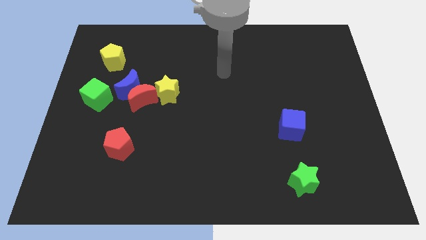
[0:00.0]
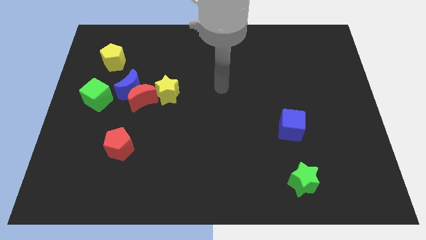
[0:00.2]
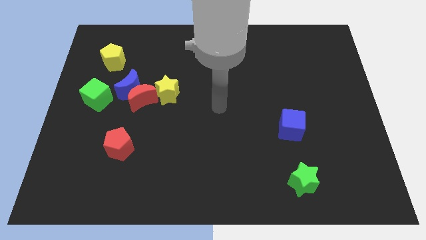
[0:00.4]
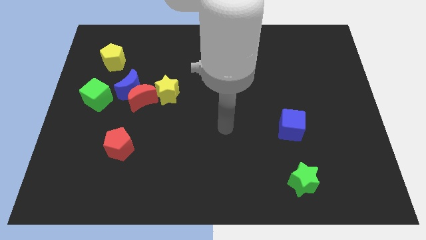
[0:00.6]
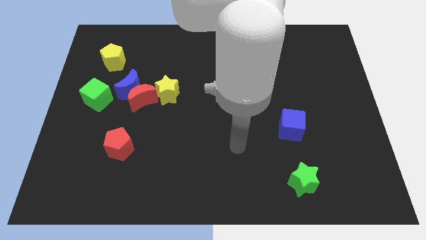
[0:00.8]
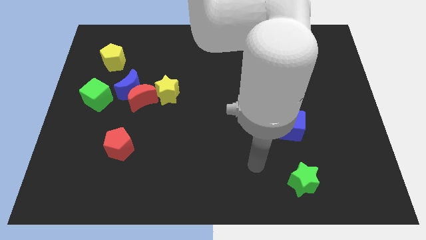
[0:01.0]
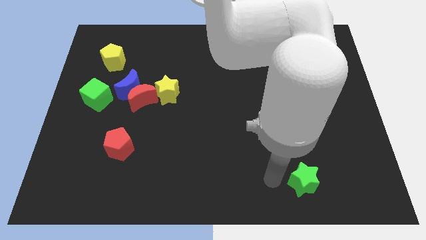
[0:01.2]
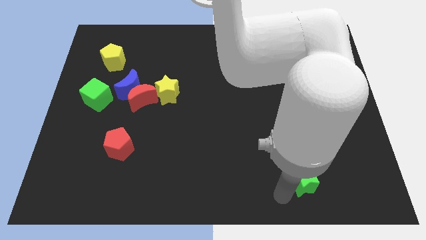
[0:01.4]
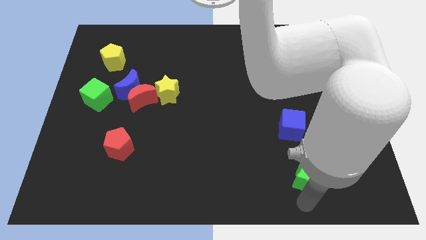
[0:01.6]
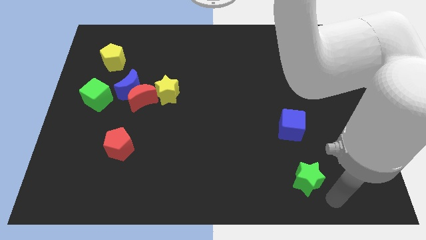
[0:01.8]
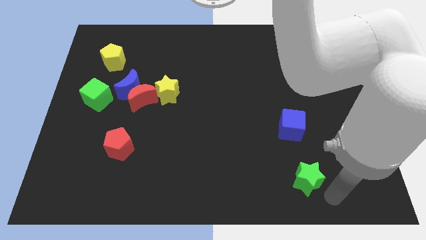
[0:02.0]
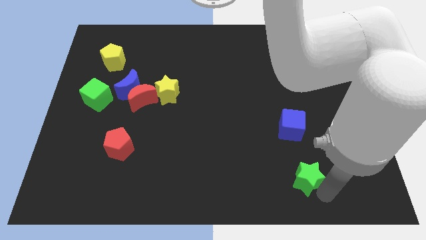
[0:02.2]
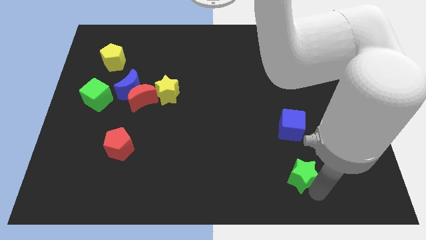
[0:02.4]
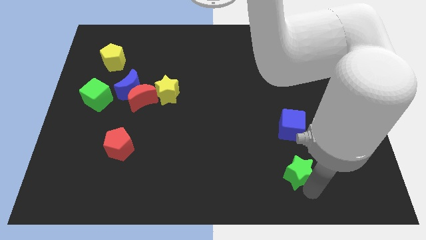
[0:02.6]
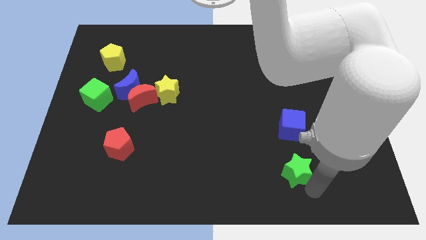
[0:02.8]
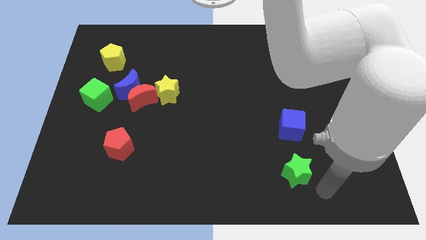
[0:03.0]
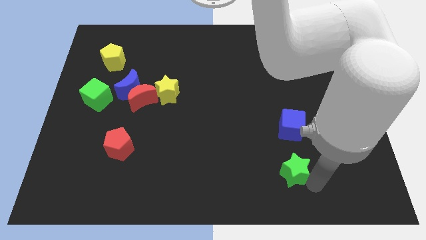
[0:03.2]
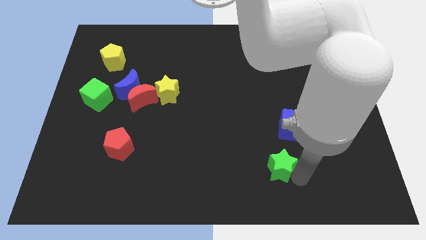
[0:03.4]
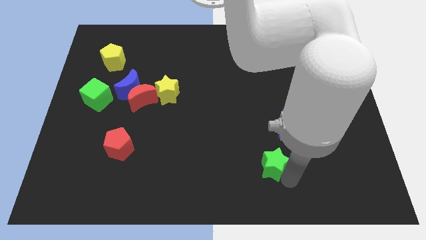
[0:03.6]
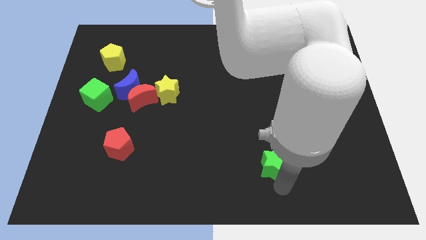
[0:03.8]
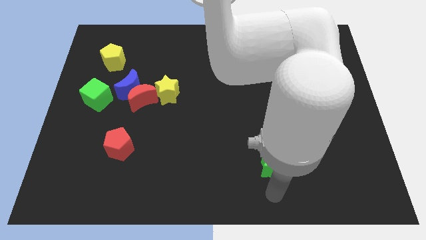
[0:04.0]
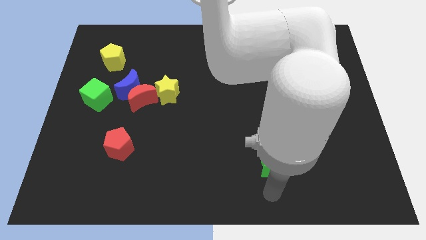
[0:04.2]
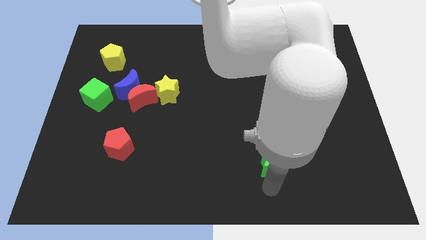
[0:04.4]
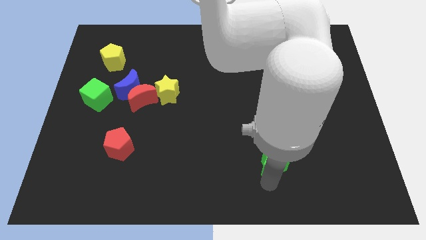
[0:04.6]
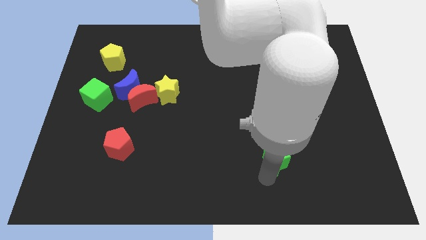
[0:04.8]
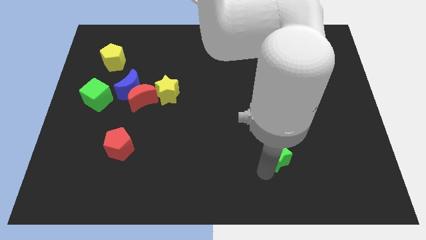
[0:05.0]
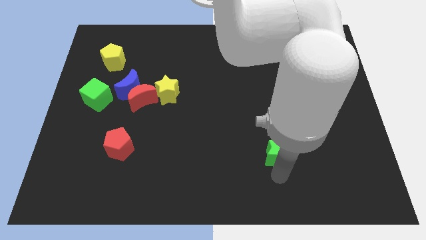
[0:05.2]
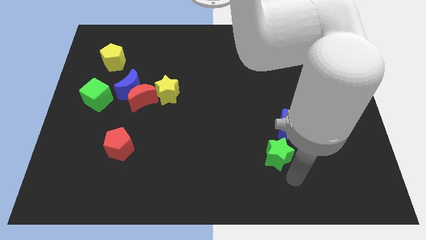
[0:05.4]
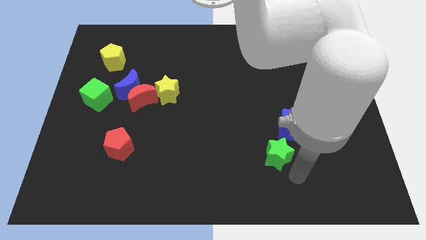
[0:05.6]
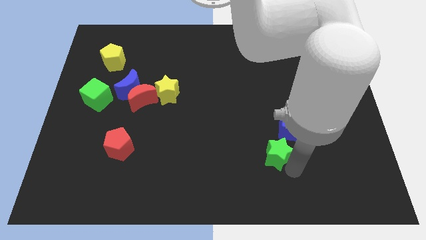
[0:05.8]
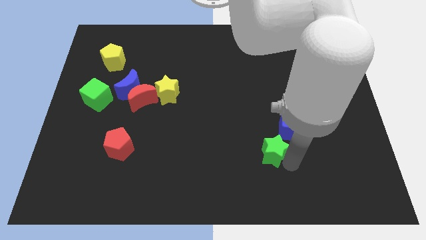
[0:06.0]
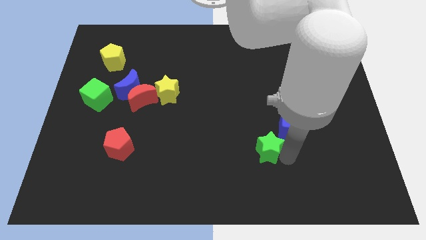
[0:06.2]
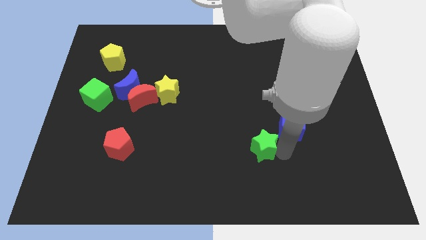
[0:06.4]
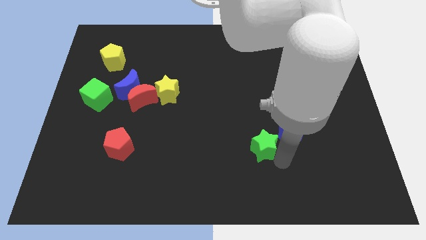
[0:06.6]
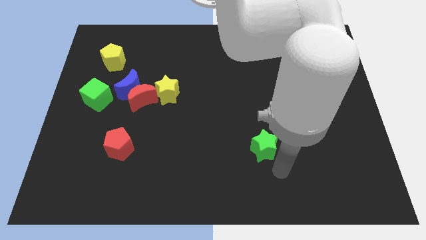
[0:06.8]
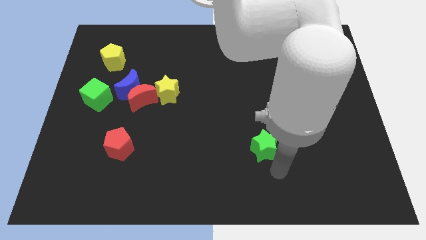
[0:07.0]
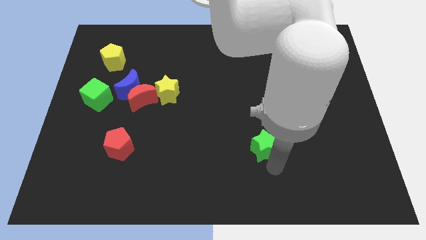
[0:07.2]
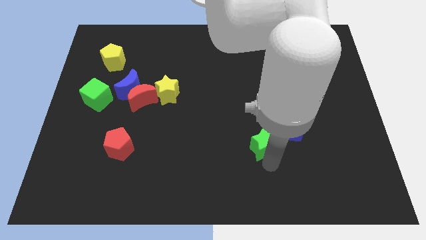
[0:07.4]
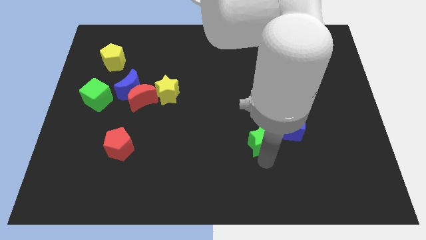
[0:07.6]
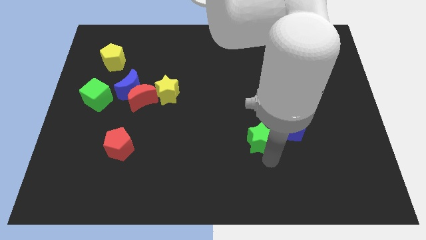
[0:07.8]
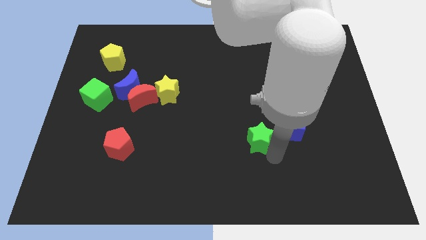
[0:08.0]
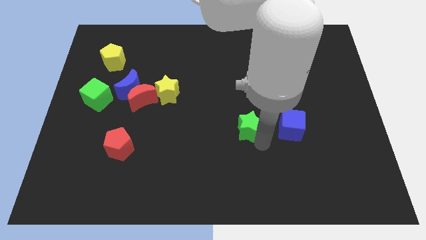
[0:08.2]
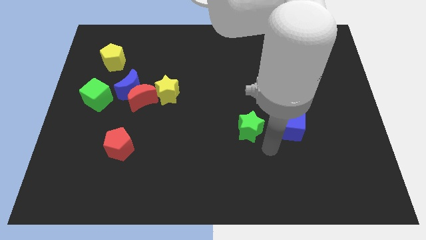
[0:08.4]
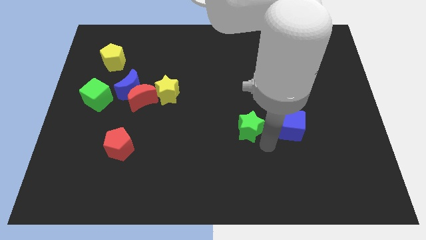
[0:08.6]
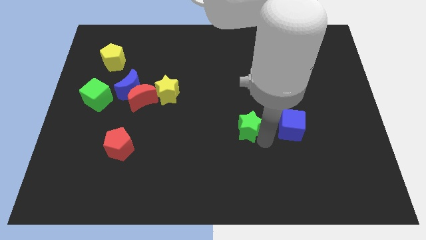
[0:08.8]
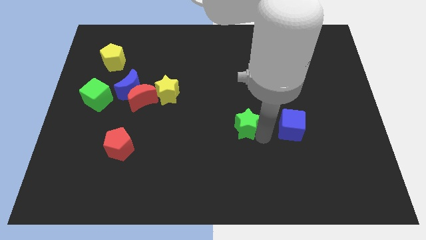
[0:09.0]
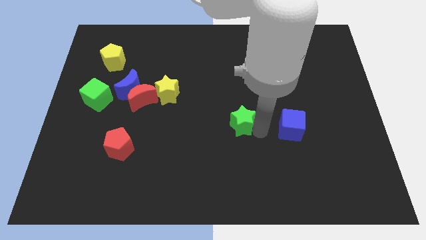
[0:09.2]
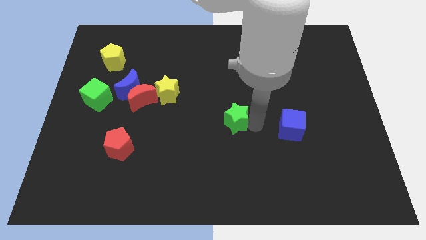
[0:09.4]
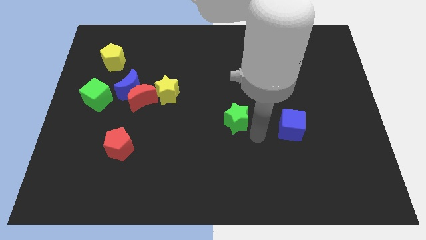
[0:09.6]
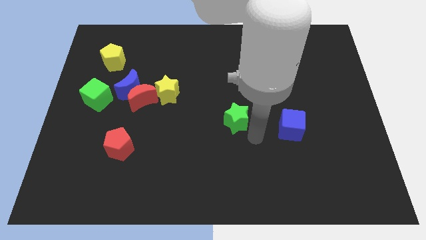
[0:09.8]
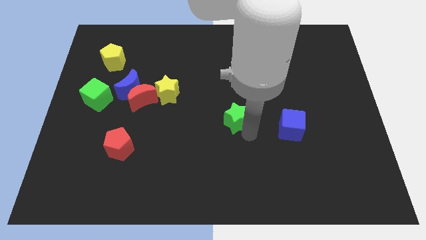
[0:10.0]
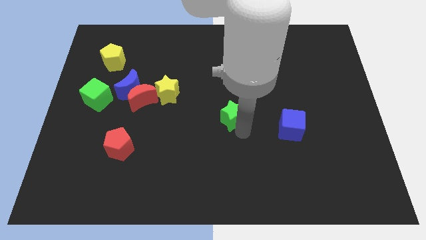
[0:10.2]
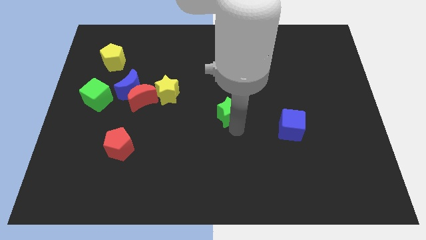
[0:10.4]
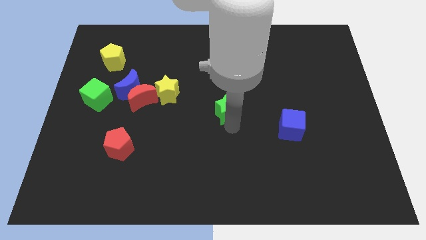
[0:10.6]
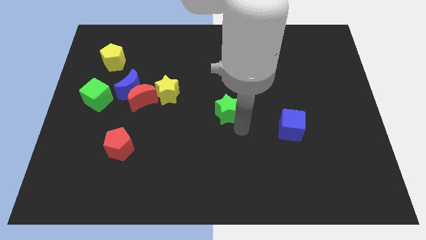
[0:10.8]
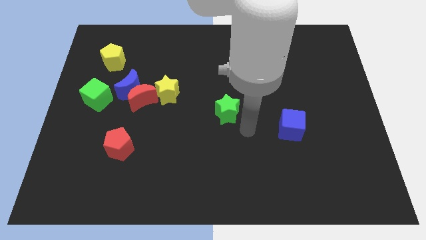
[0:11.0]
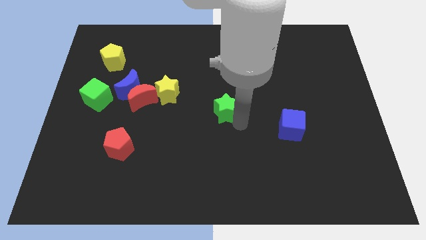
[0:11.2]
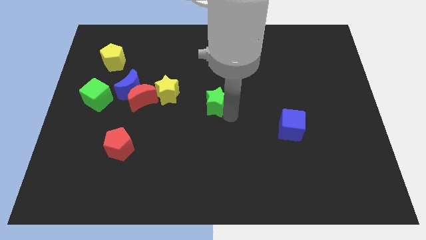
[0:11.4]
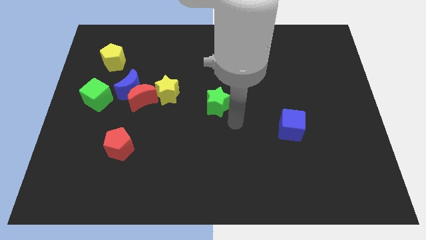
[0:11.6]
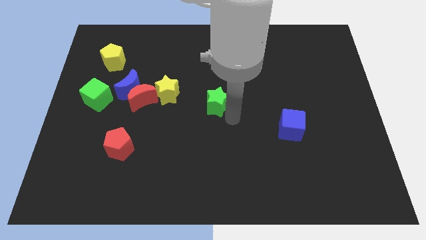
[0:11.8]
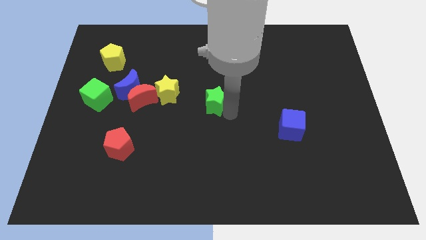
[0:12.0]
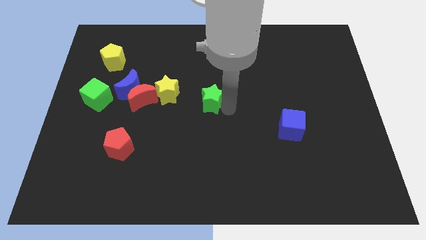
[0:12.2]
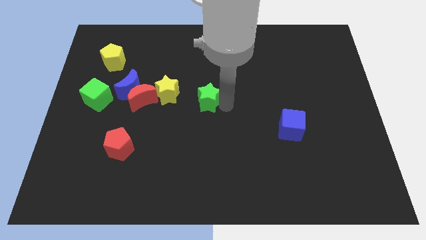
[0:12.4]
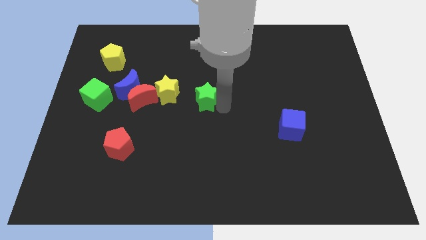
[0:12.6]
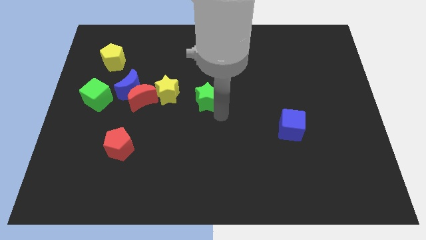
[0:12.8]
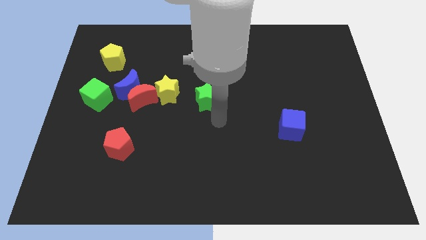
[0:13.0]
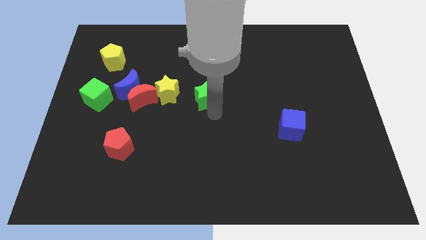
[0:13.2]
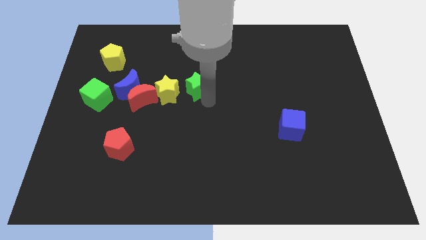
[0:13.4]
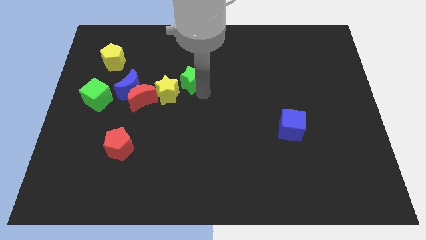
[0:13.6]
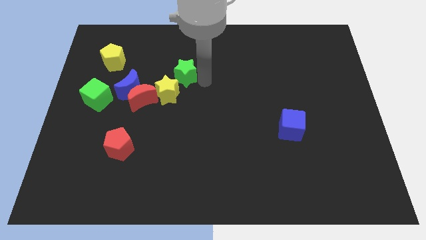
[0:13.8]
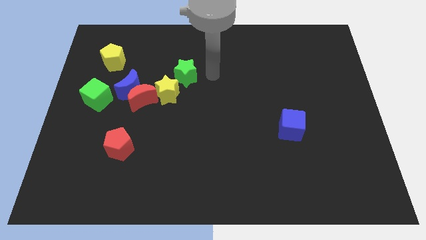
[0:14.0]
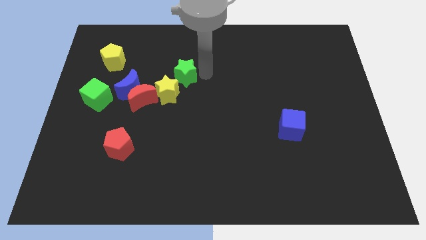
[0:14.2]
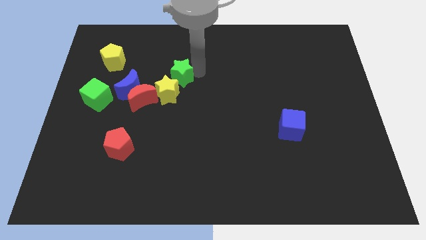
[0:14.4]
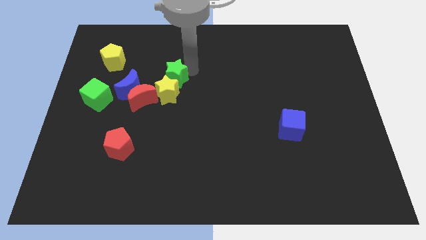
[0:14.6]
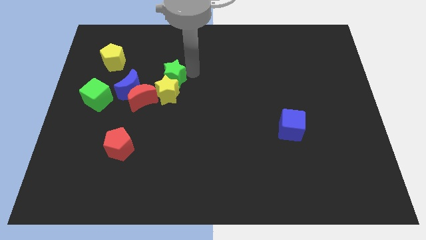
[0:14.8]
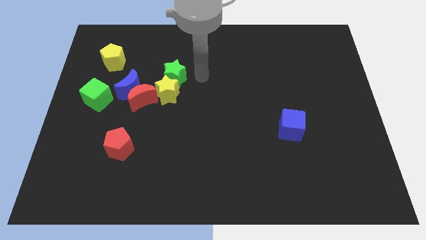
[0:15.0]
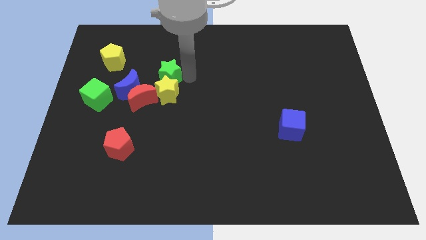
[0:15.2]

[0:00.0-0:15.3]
move the green star to the top left of the yellow star
